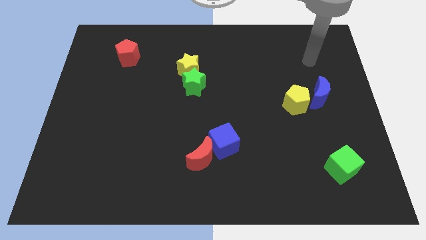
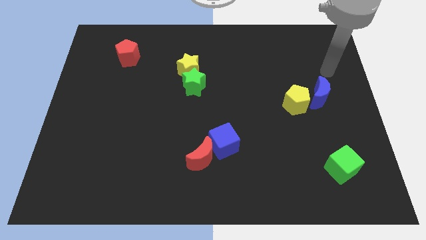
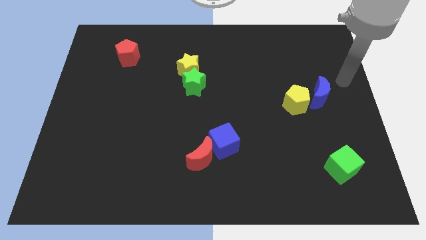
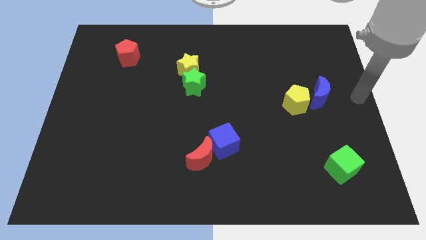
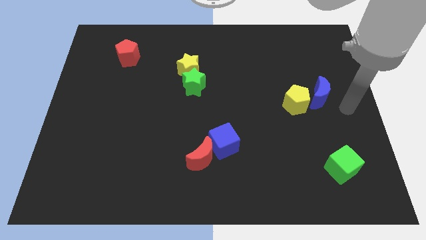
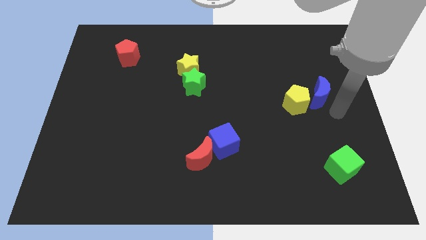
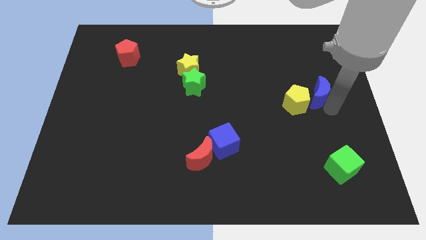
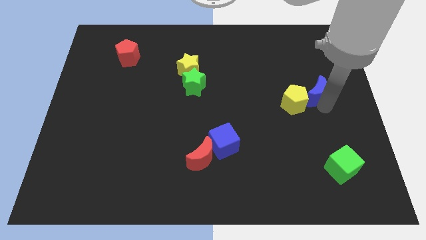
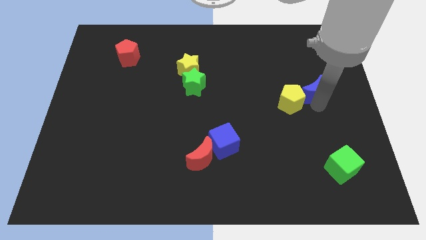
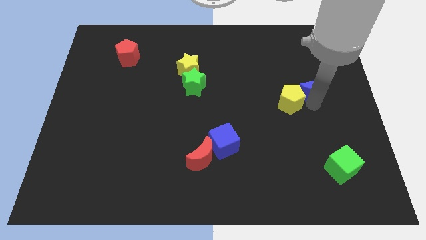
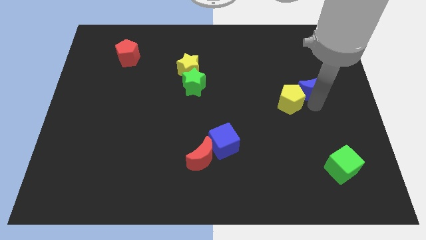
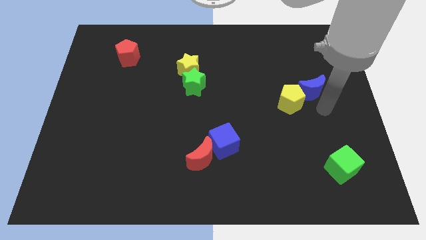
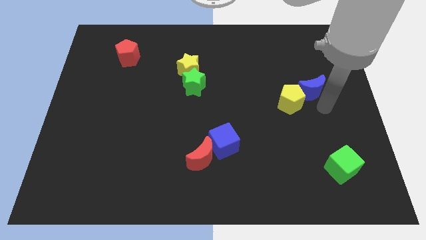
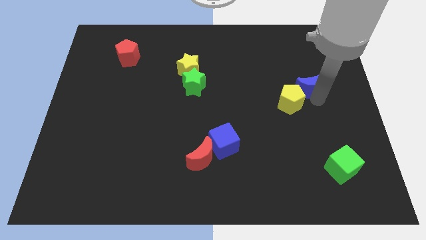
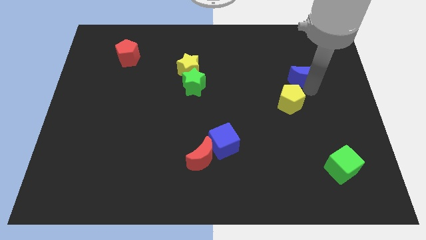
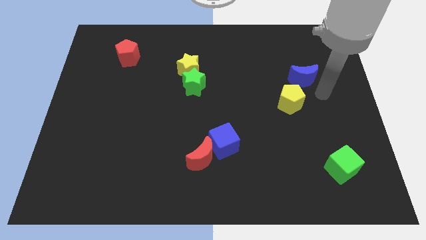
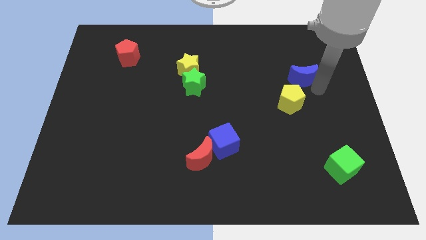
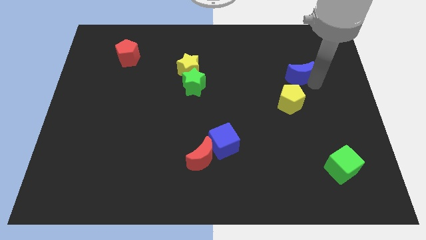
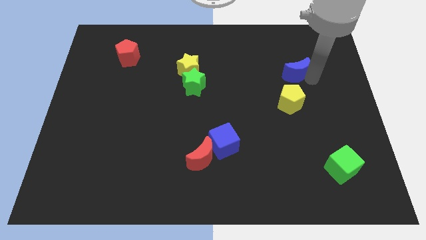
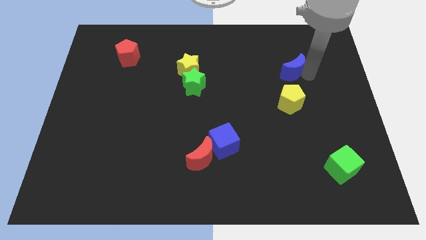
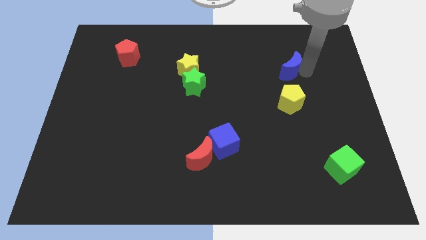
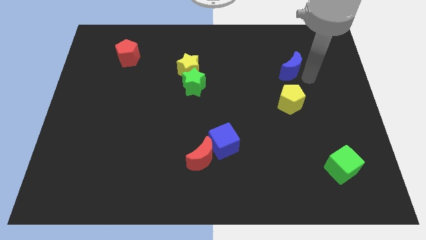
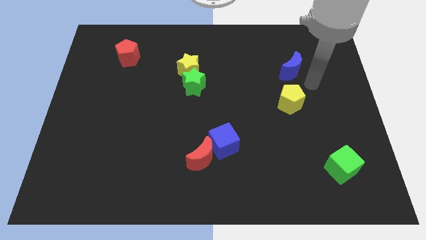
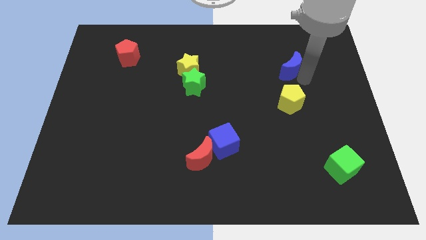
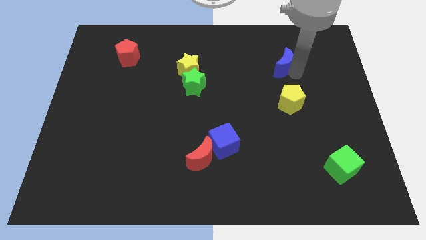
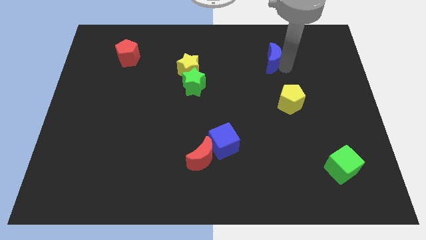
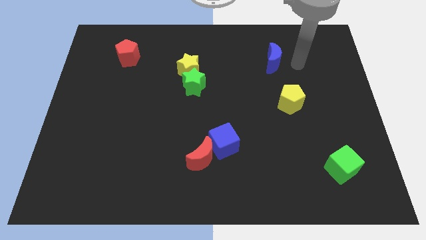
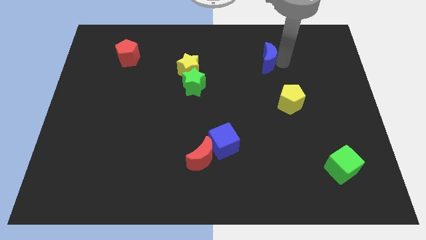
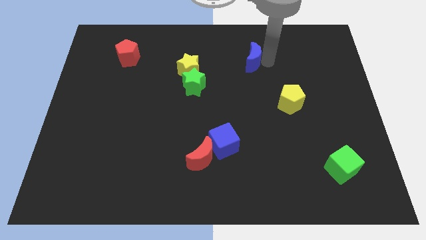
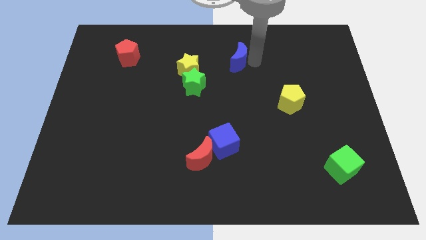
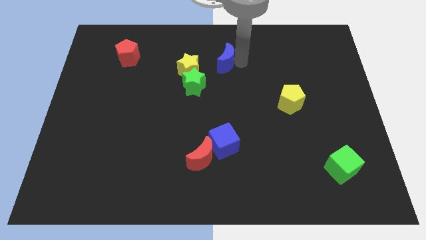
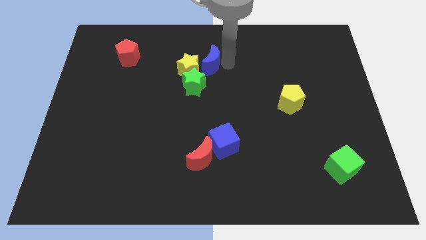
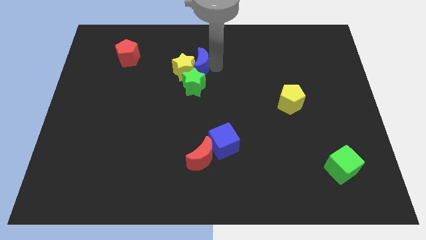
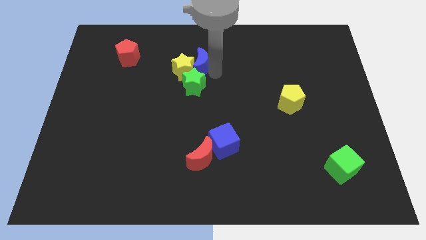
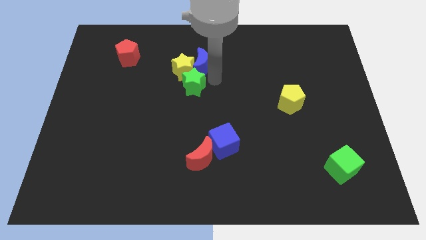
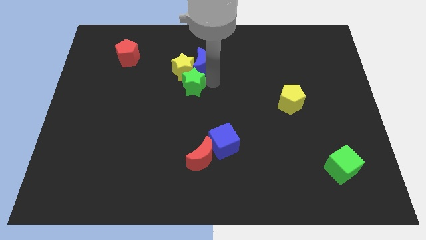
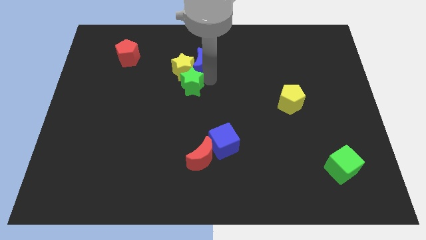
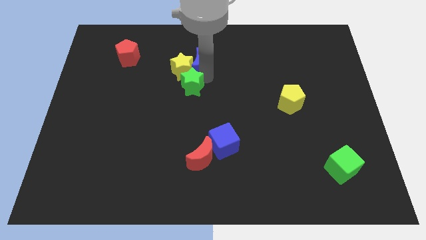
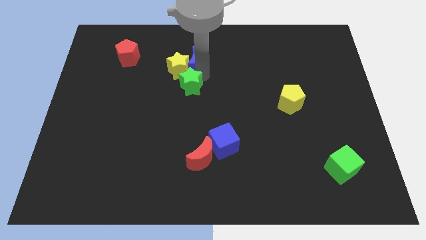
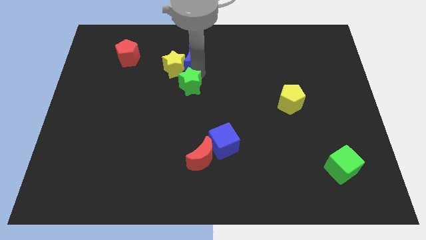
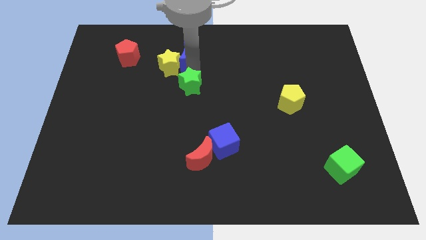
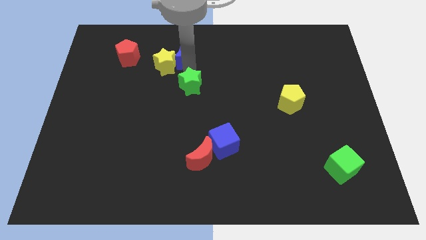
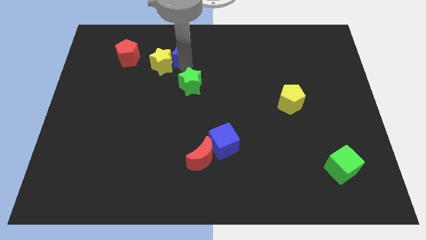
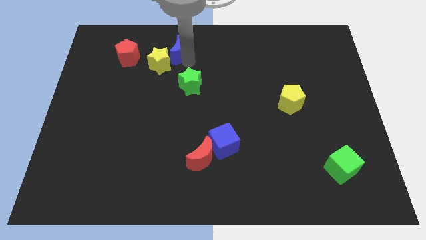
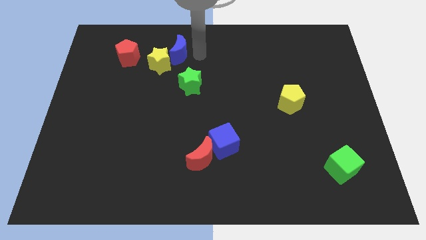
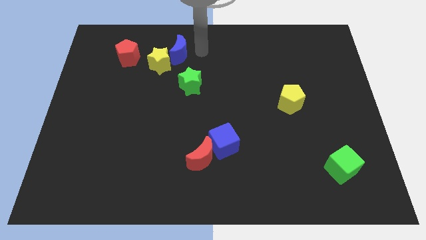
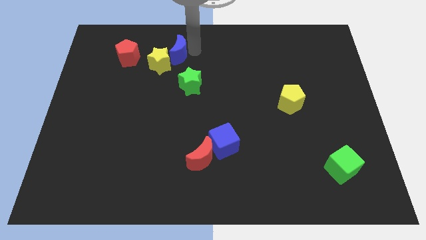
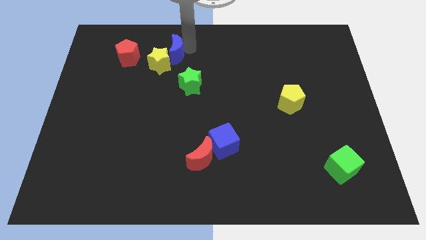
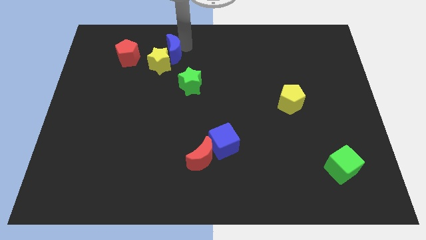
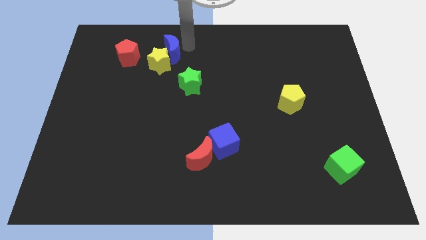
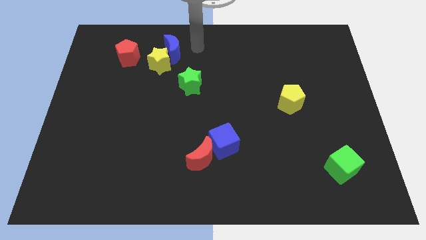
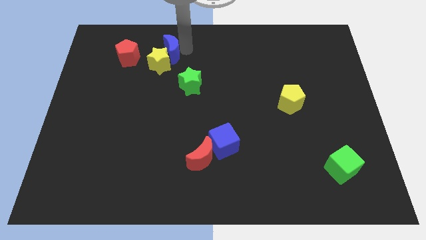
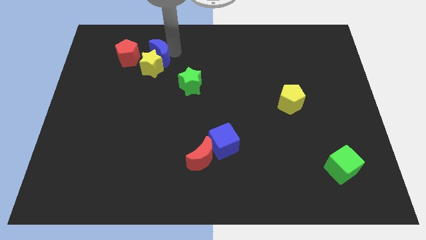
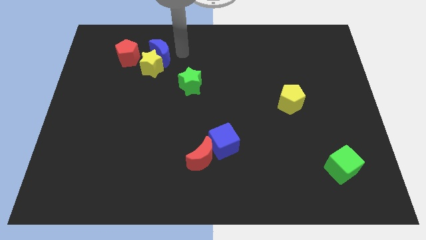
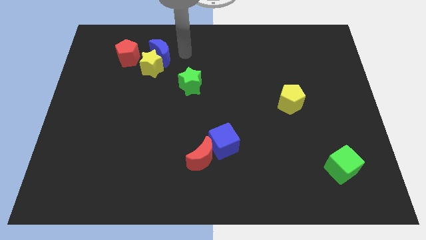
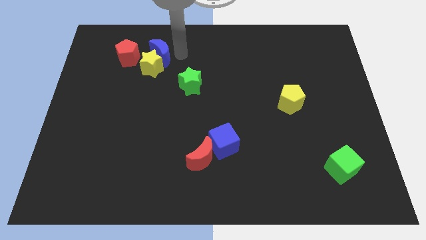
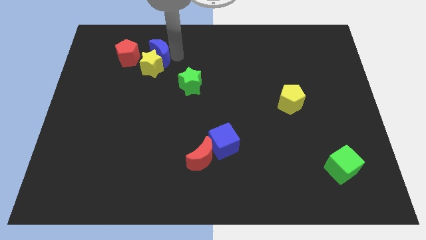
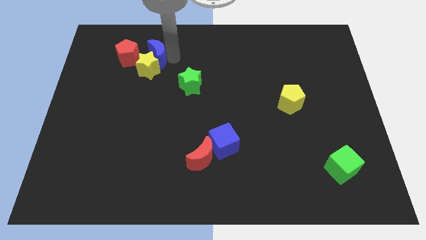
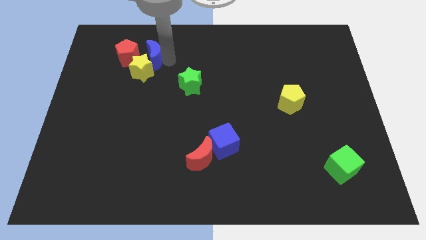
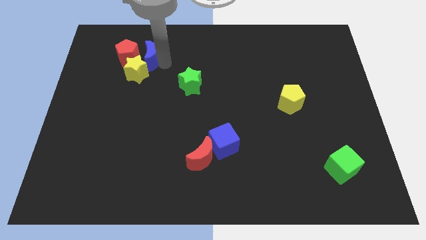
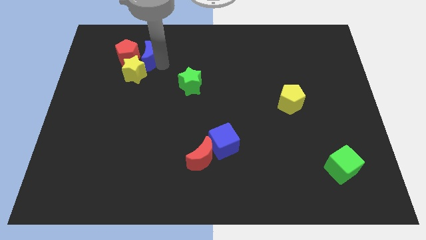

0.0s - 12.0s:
put the blue moon close to the red pentagon

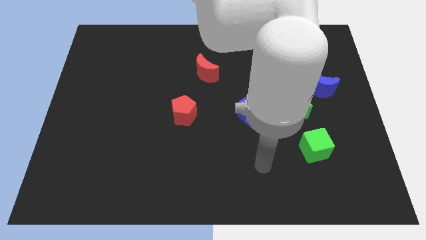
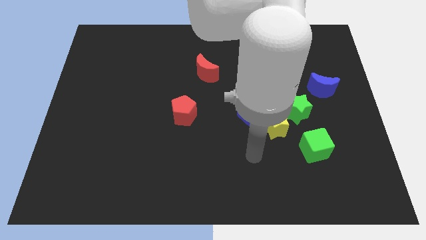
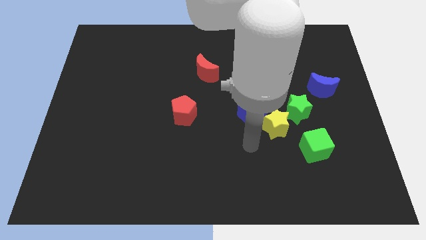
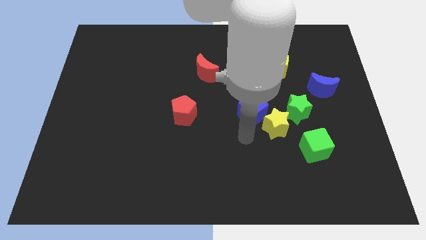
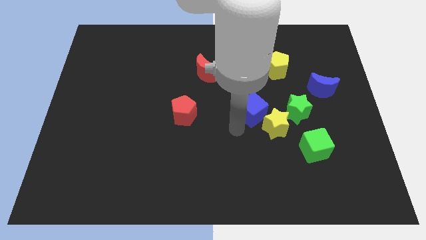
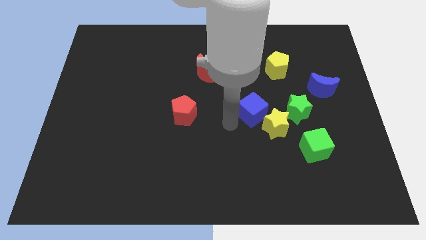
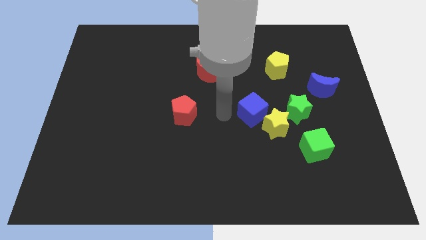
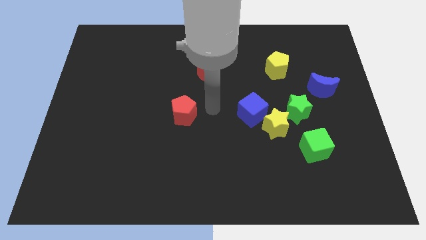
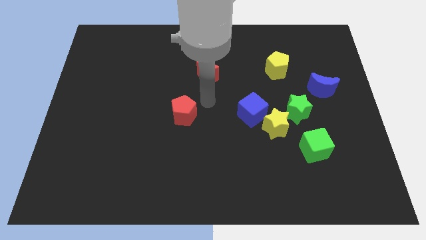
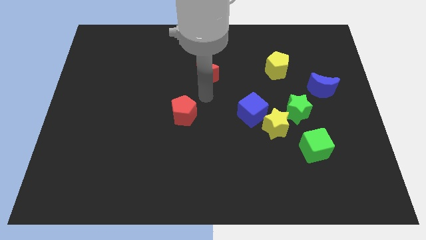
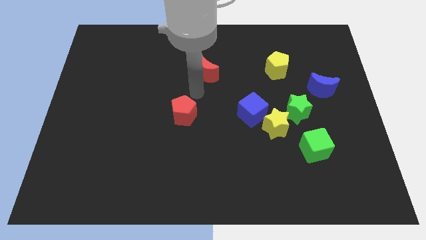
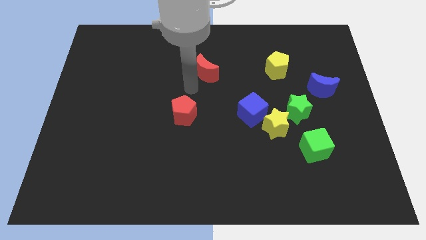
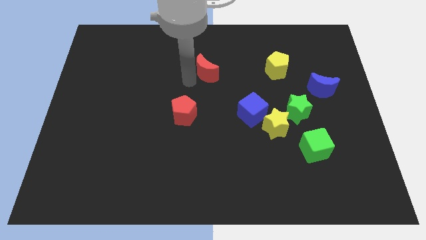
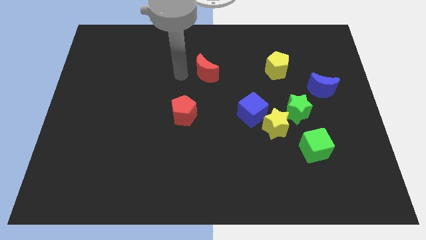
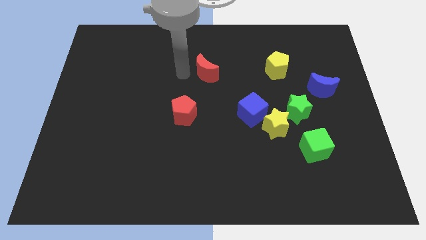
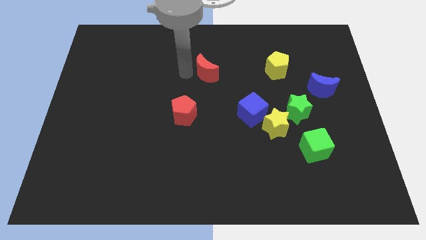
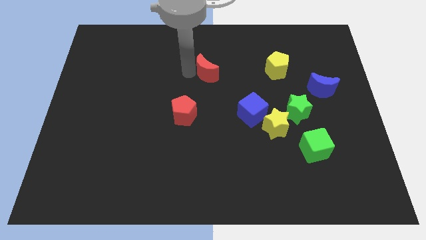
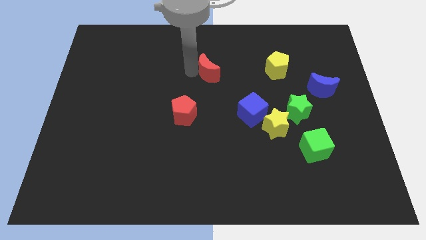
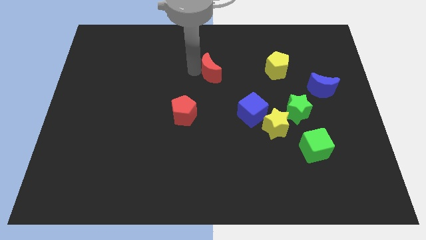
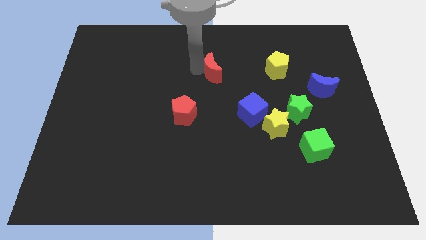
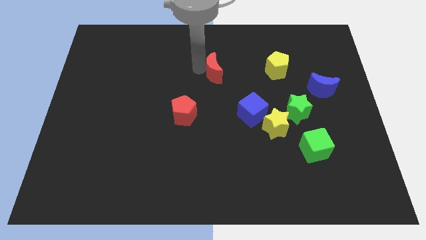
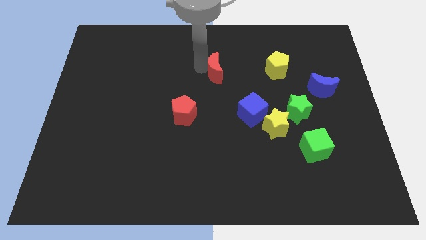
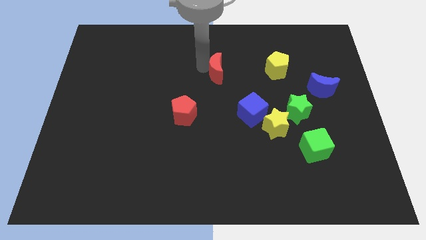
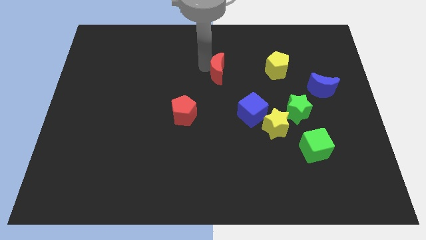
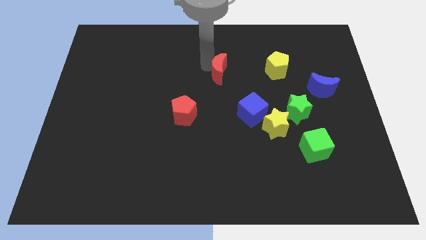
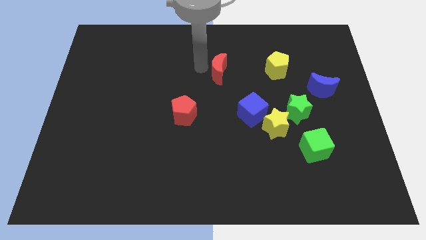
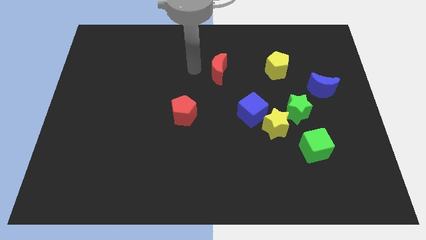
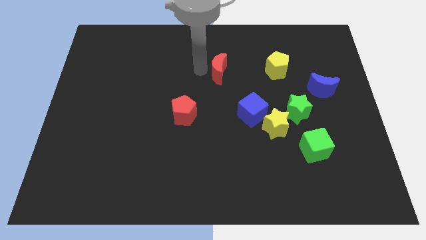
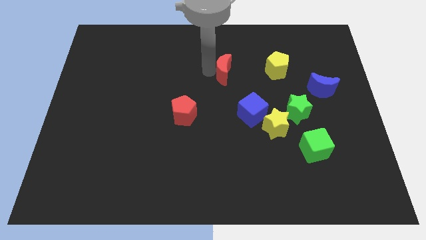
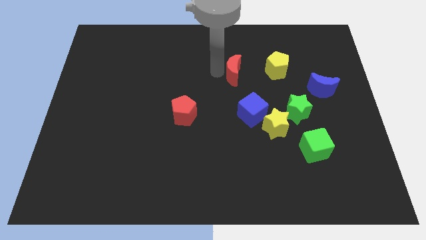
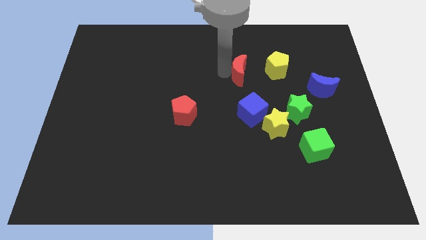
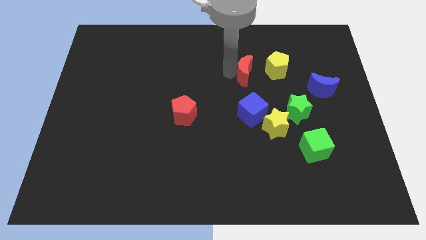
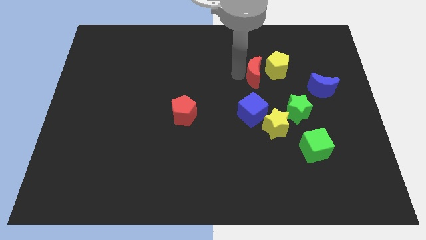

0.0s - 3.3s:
push the red moon close to the yellow pentagon
